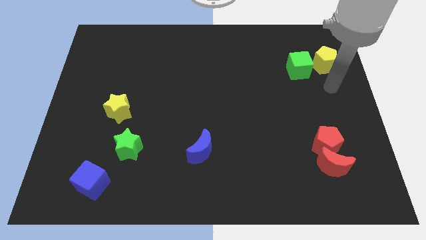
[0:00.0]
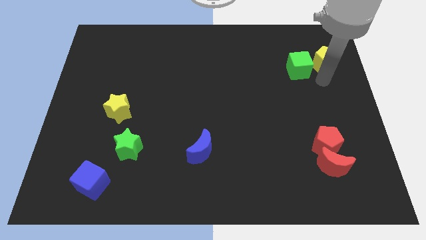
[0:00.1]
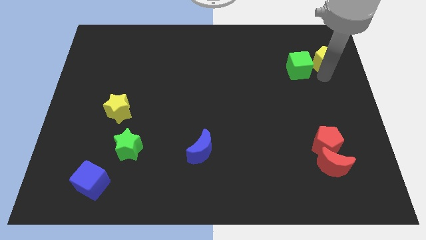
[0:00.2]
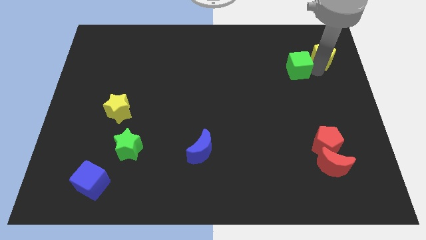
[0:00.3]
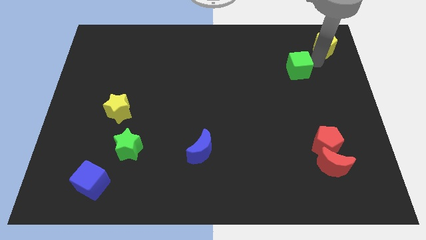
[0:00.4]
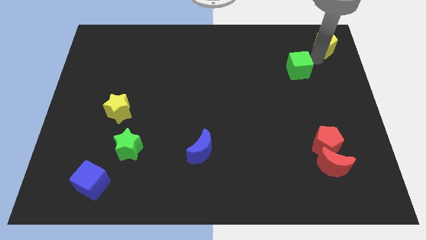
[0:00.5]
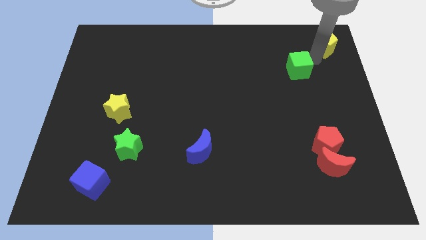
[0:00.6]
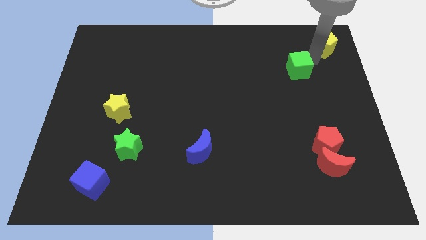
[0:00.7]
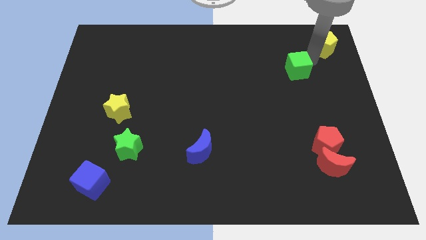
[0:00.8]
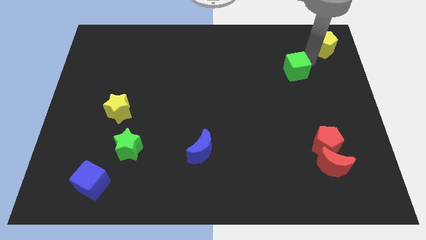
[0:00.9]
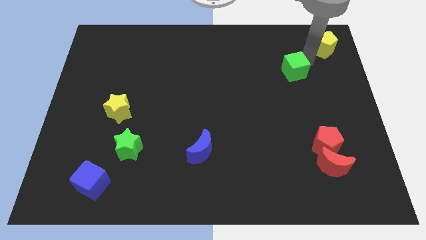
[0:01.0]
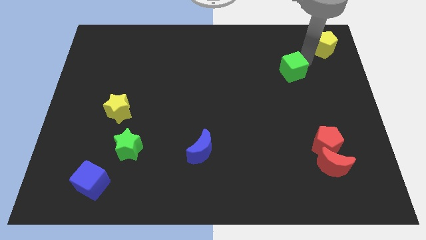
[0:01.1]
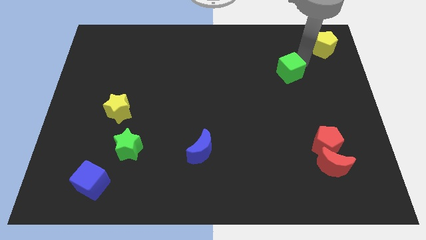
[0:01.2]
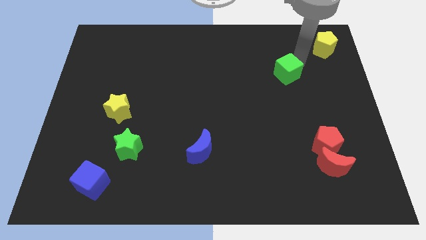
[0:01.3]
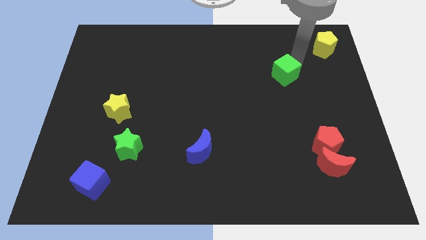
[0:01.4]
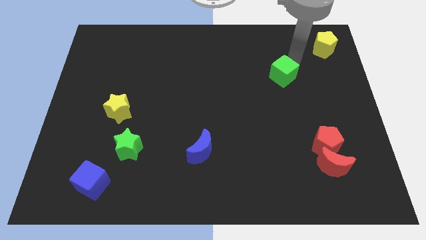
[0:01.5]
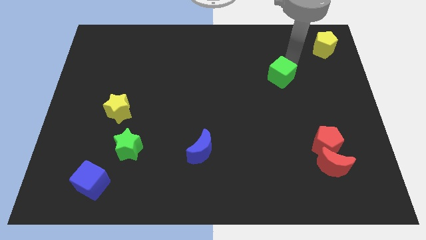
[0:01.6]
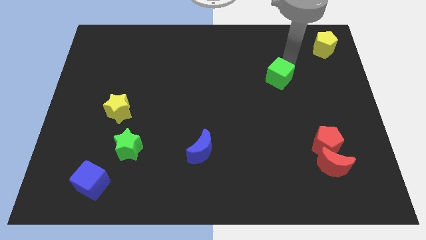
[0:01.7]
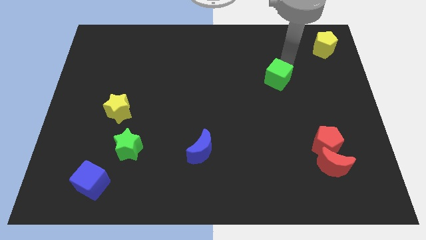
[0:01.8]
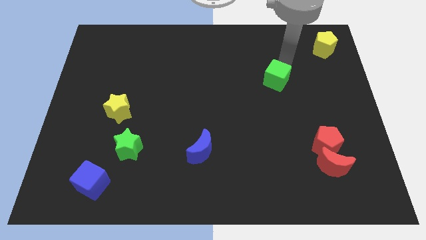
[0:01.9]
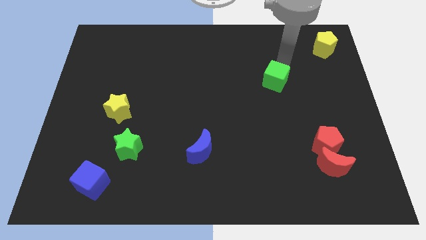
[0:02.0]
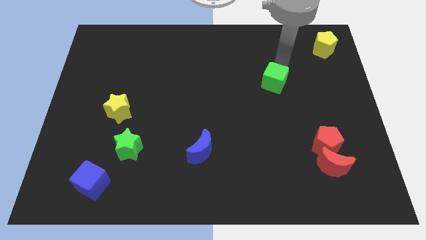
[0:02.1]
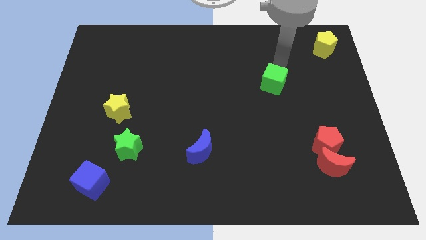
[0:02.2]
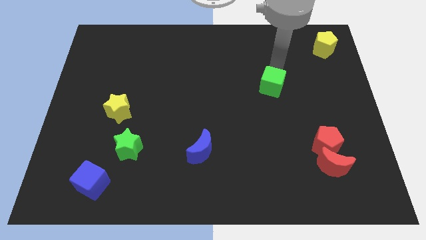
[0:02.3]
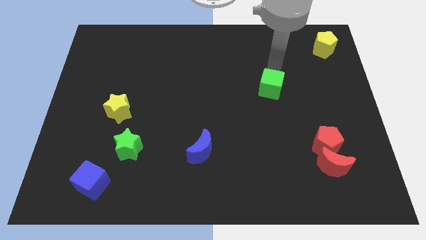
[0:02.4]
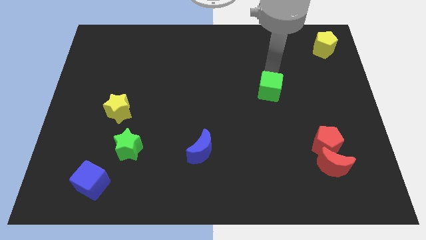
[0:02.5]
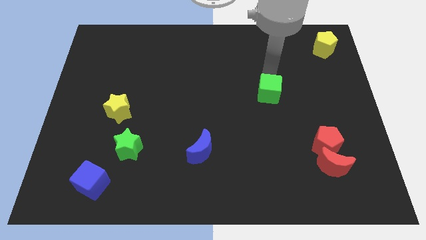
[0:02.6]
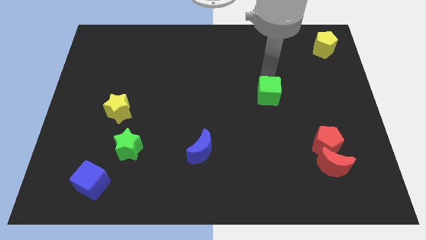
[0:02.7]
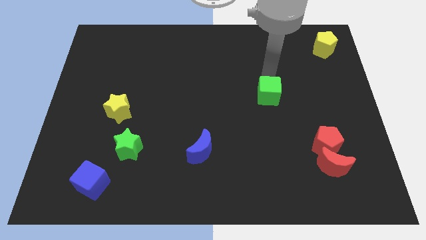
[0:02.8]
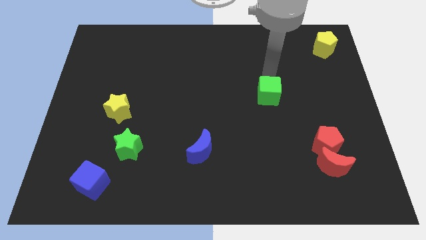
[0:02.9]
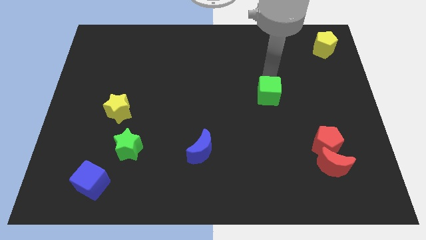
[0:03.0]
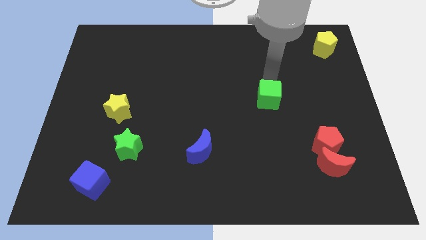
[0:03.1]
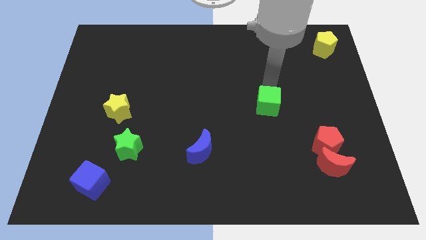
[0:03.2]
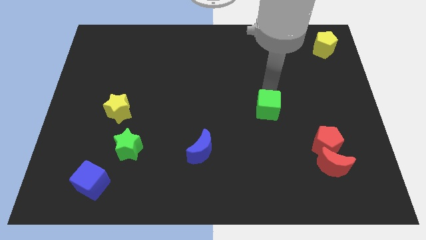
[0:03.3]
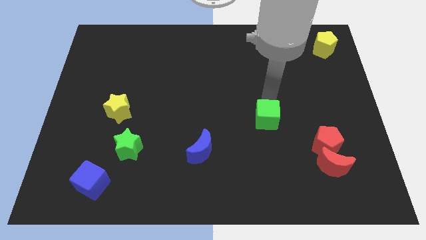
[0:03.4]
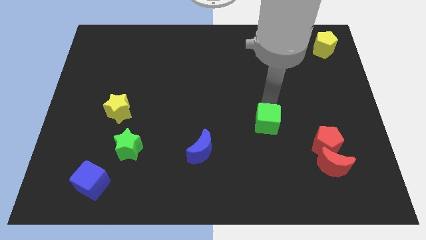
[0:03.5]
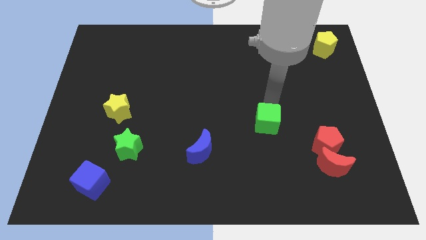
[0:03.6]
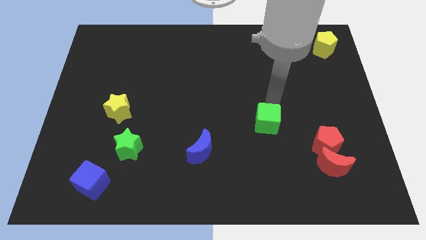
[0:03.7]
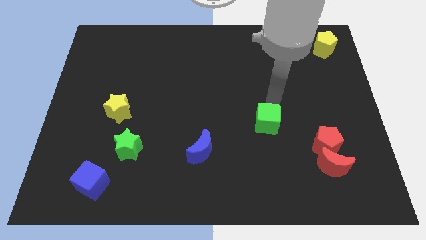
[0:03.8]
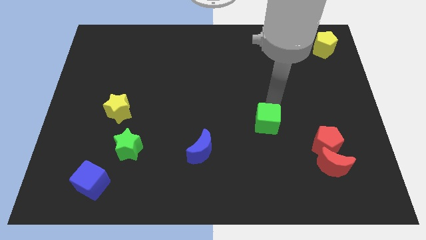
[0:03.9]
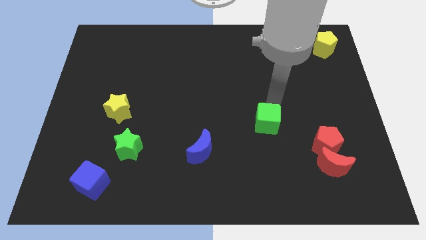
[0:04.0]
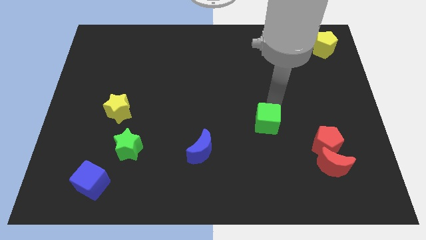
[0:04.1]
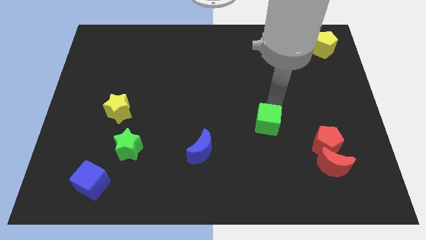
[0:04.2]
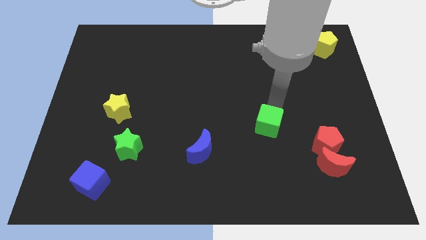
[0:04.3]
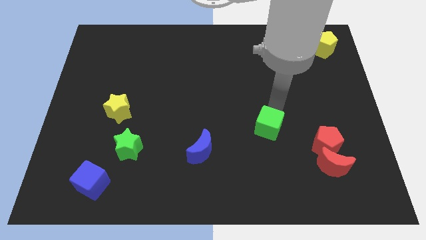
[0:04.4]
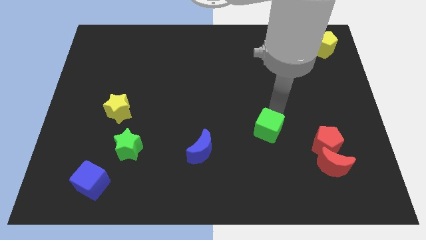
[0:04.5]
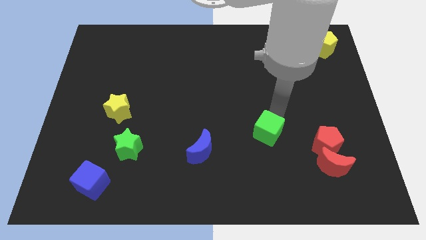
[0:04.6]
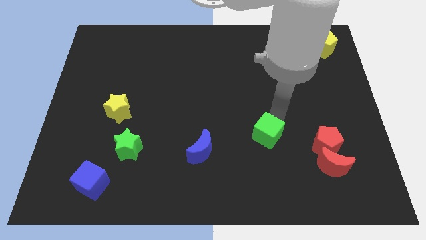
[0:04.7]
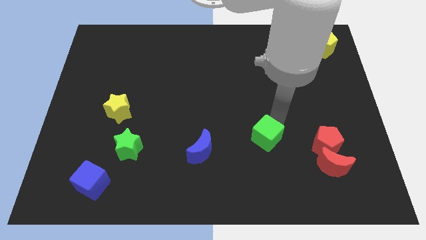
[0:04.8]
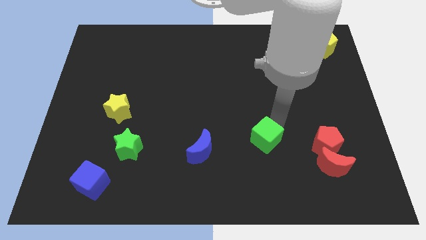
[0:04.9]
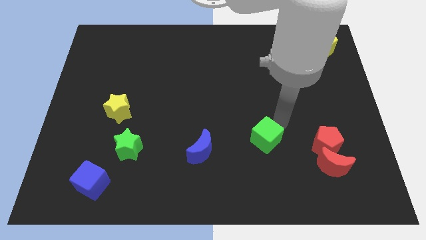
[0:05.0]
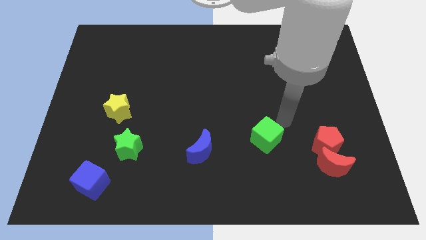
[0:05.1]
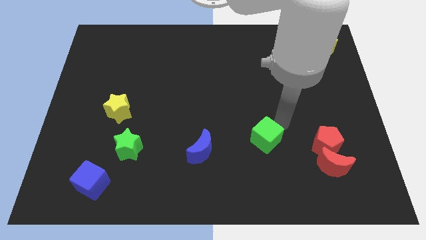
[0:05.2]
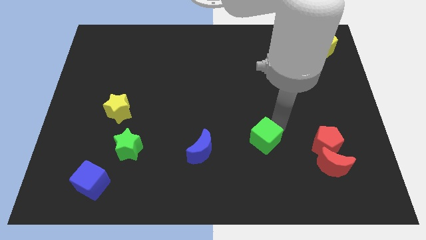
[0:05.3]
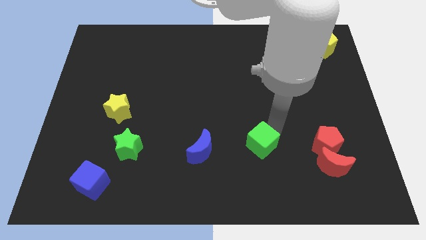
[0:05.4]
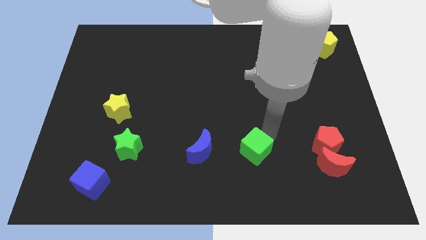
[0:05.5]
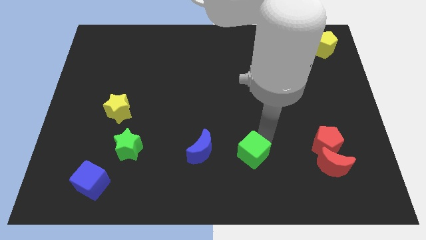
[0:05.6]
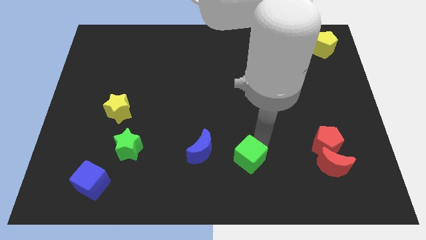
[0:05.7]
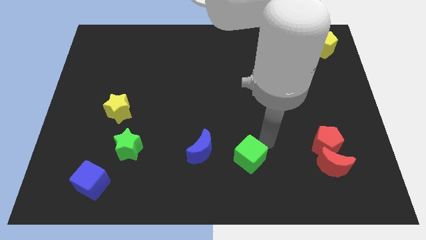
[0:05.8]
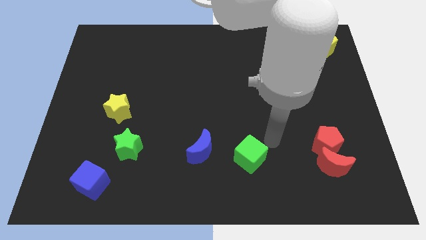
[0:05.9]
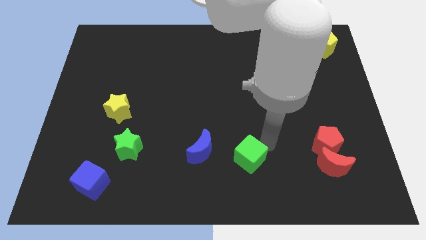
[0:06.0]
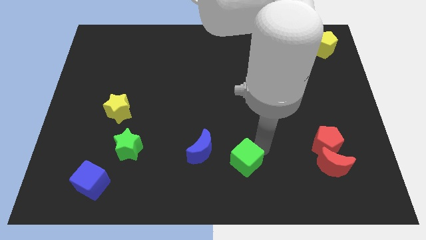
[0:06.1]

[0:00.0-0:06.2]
push the green cube to the bottom right of the blue moon
